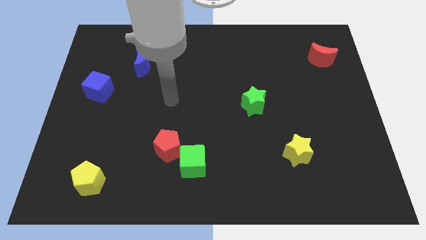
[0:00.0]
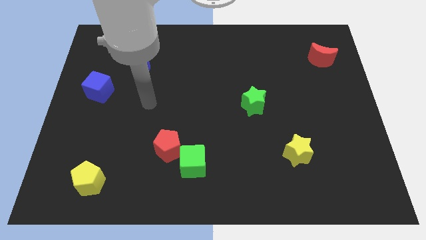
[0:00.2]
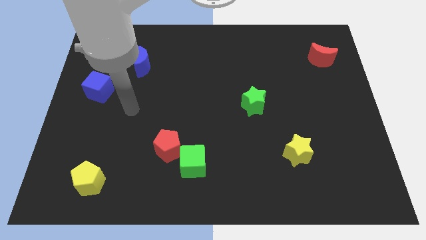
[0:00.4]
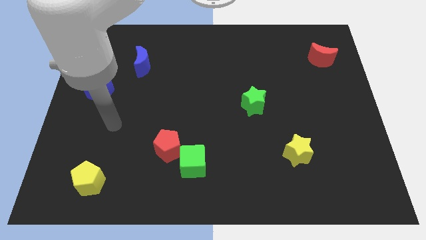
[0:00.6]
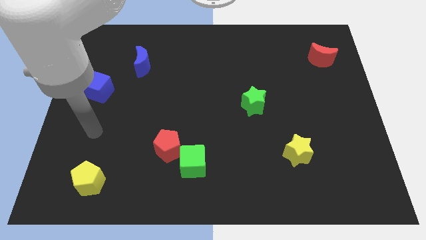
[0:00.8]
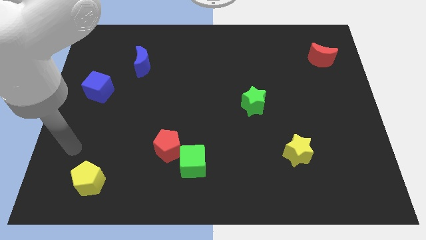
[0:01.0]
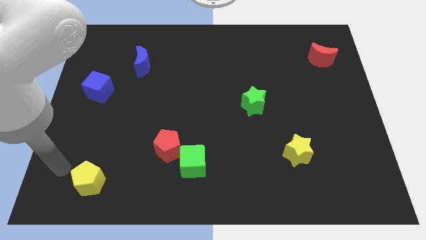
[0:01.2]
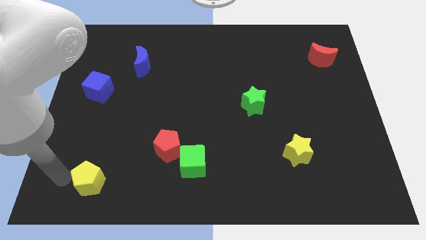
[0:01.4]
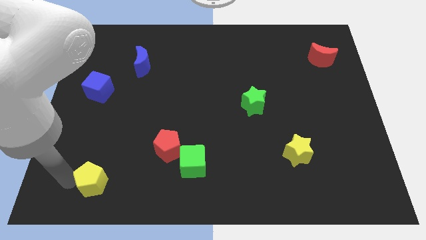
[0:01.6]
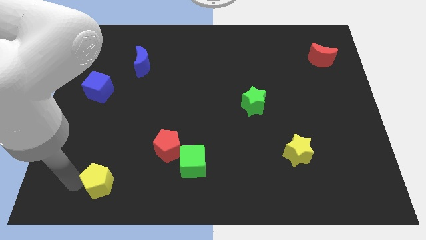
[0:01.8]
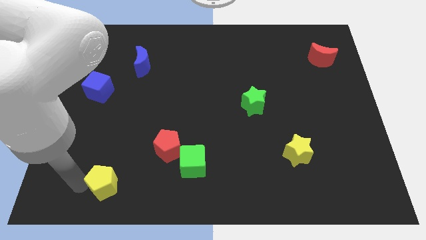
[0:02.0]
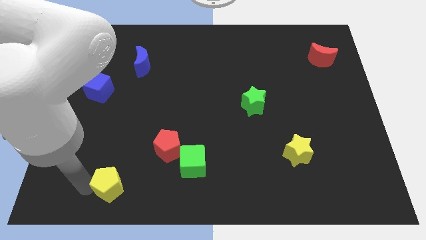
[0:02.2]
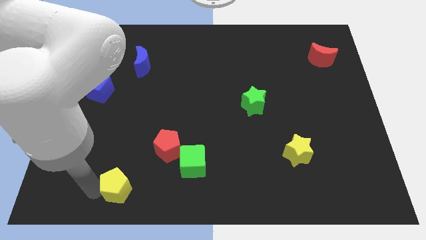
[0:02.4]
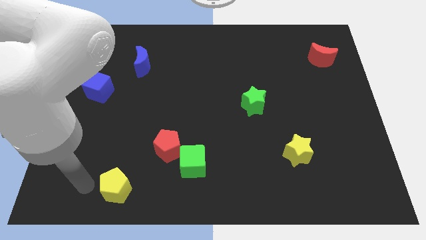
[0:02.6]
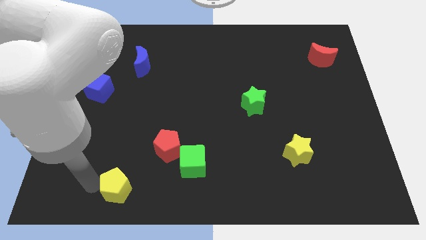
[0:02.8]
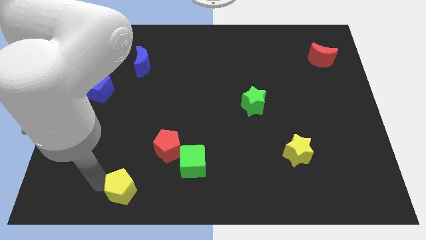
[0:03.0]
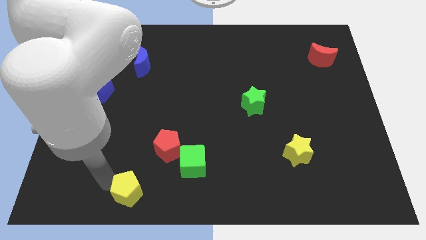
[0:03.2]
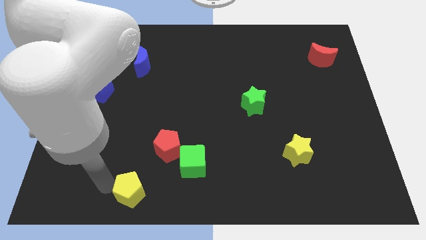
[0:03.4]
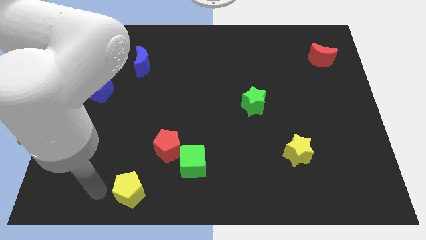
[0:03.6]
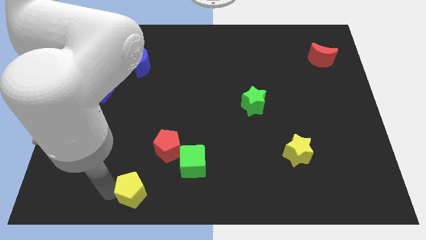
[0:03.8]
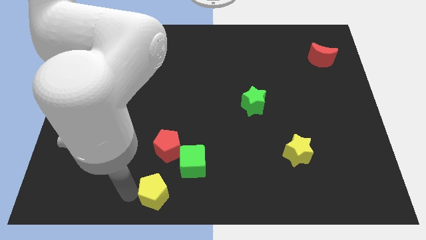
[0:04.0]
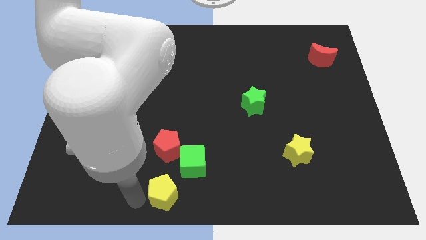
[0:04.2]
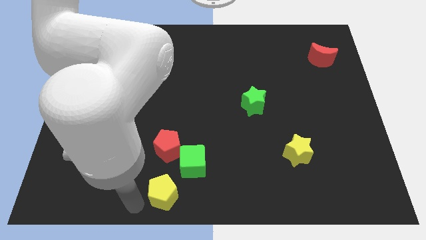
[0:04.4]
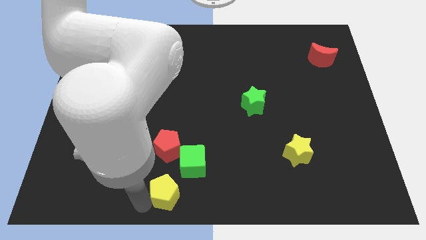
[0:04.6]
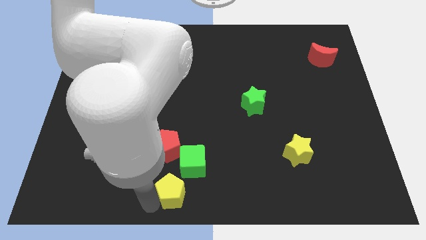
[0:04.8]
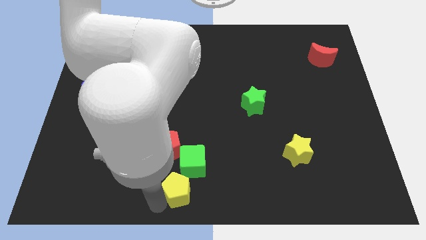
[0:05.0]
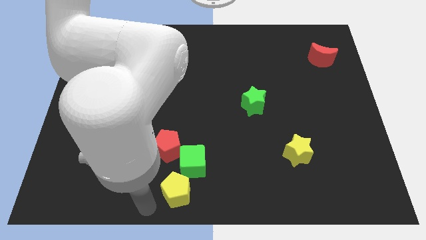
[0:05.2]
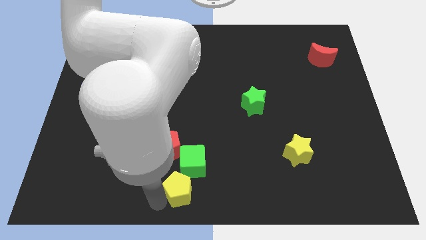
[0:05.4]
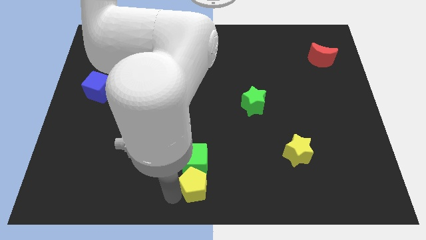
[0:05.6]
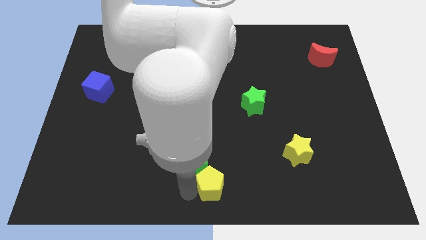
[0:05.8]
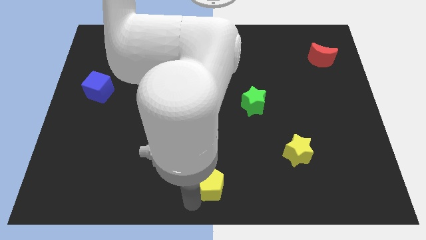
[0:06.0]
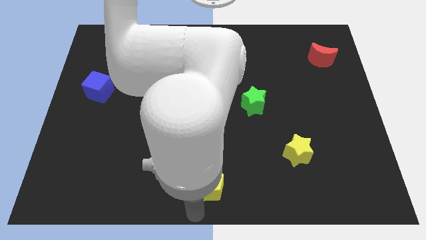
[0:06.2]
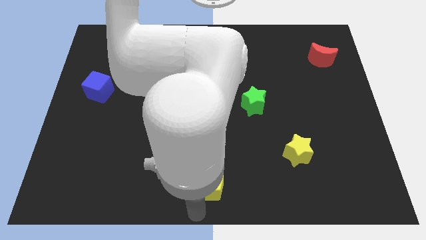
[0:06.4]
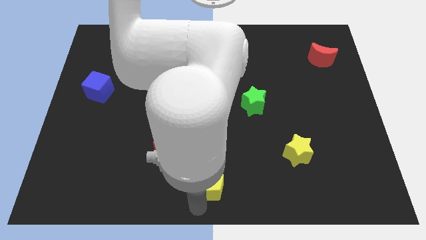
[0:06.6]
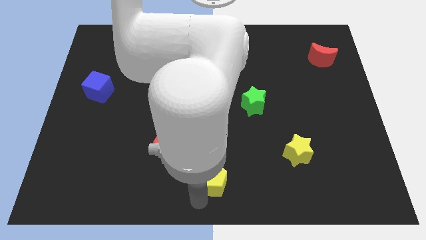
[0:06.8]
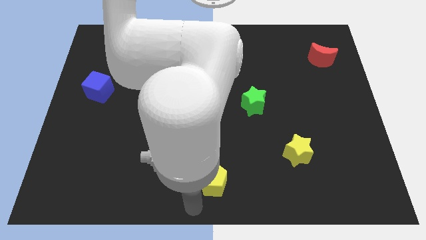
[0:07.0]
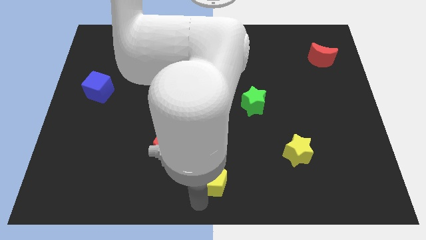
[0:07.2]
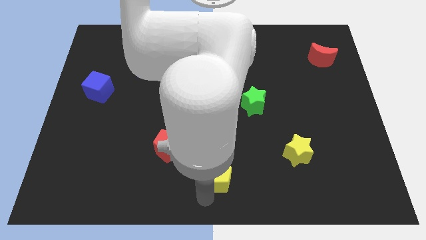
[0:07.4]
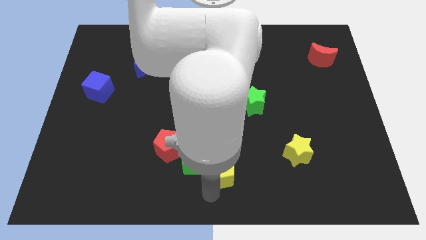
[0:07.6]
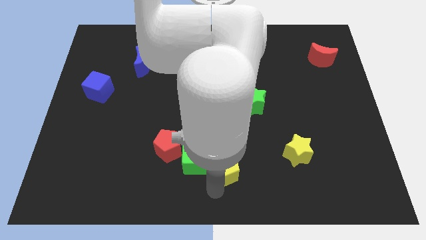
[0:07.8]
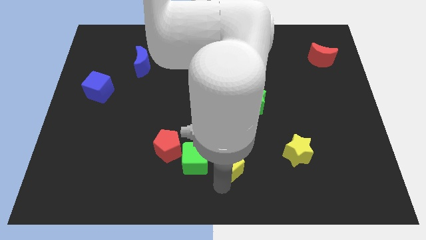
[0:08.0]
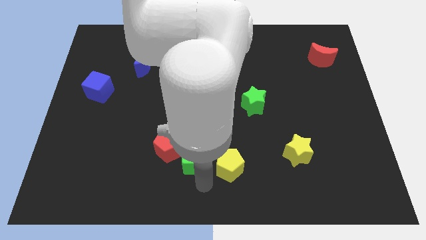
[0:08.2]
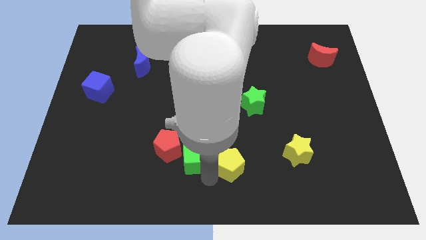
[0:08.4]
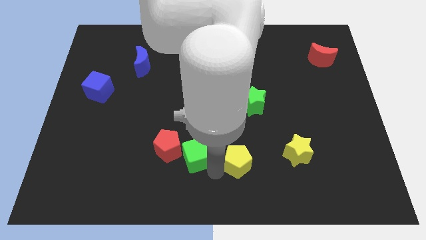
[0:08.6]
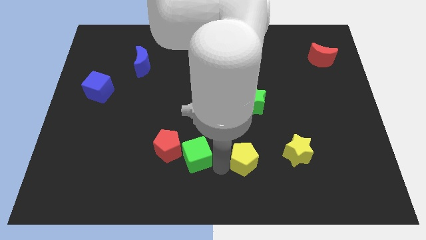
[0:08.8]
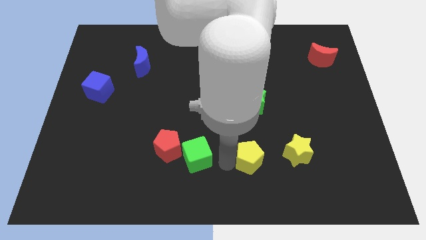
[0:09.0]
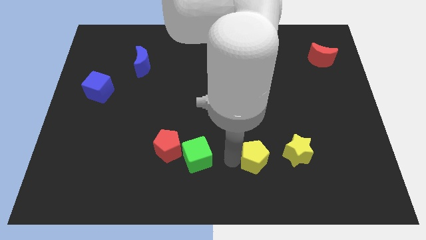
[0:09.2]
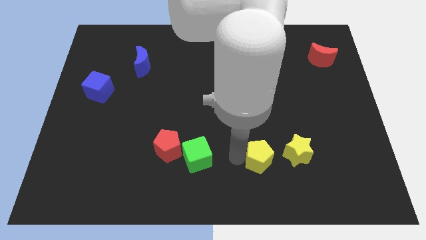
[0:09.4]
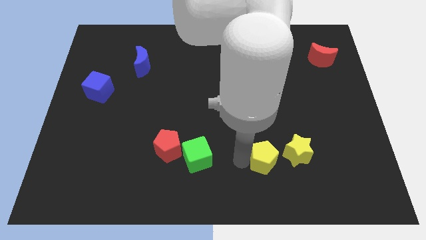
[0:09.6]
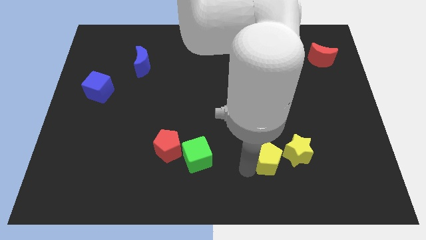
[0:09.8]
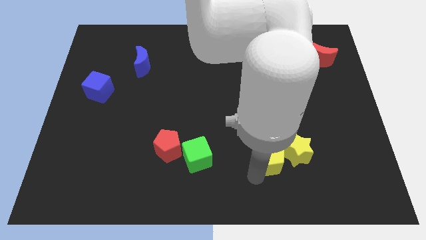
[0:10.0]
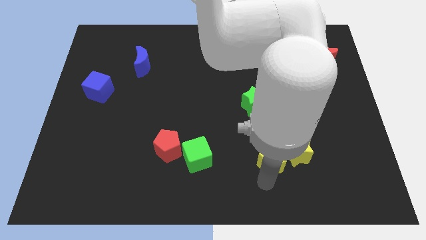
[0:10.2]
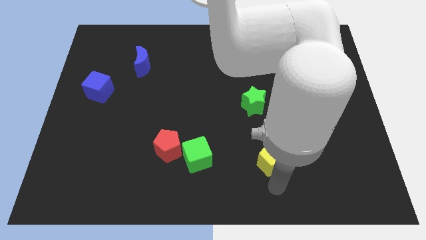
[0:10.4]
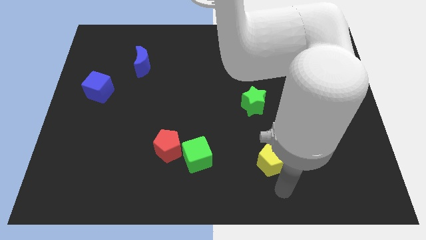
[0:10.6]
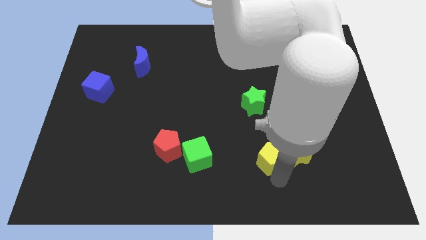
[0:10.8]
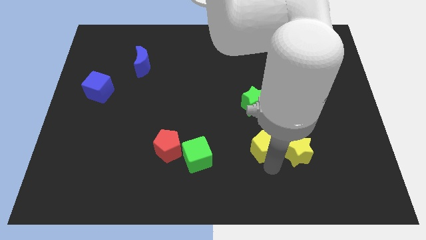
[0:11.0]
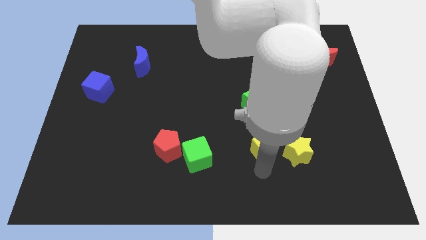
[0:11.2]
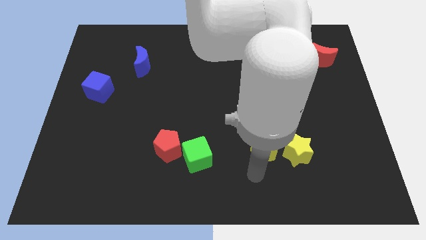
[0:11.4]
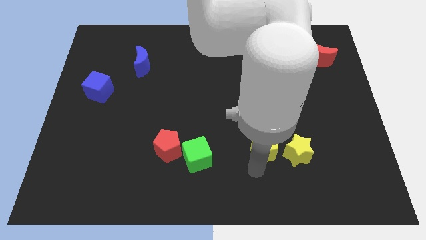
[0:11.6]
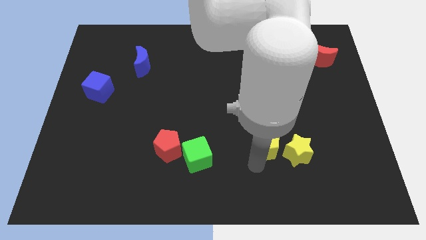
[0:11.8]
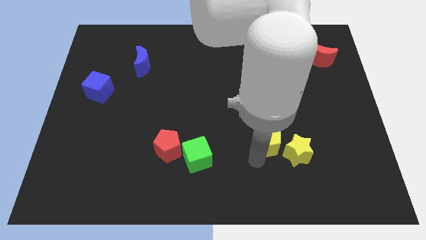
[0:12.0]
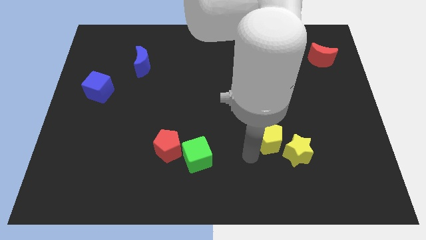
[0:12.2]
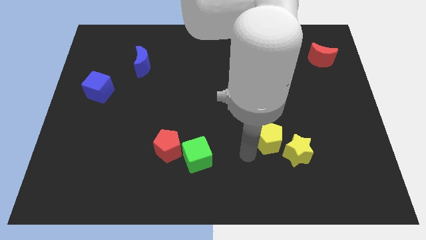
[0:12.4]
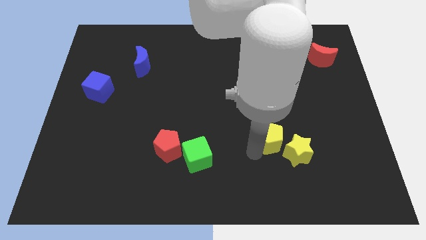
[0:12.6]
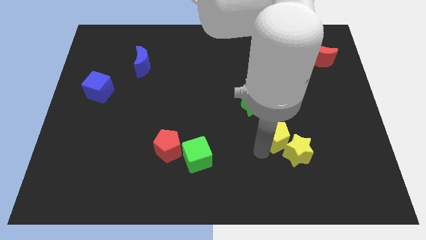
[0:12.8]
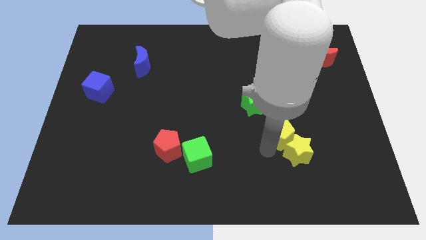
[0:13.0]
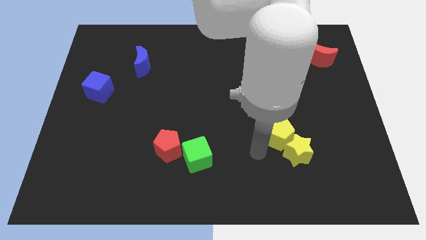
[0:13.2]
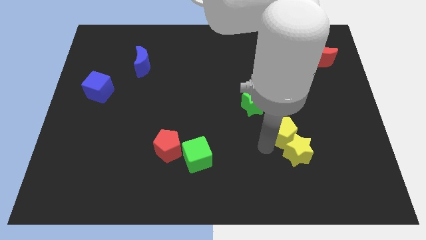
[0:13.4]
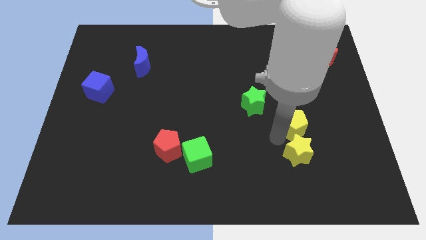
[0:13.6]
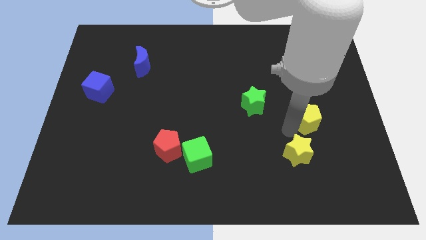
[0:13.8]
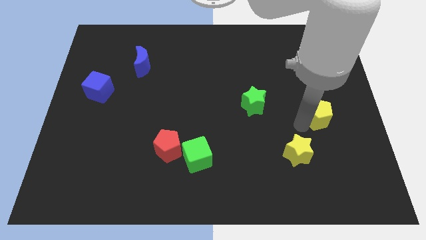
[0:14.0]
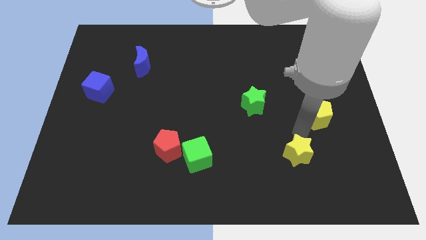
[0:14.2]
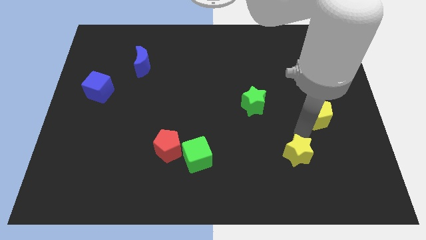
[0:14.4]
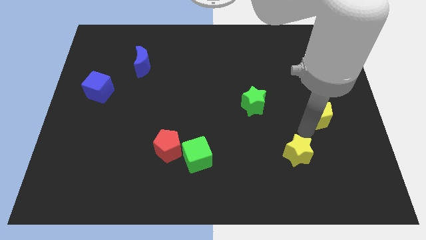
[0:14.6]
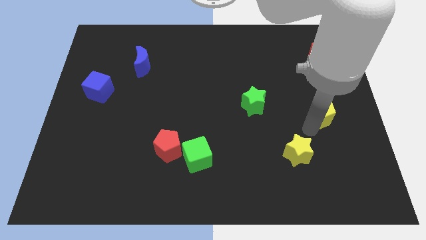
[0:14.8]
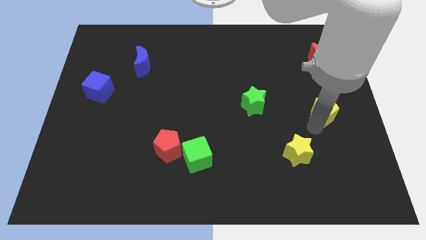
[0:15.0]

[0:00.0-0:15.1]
slide the yellow pentagon to the center right
